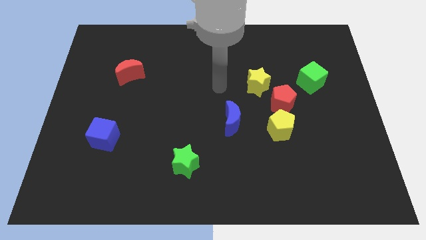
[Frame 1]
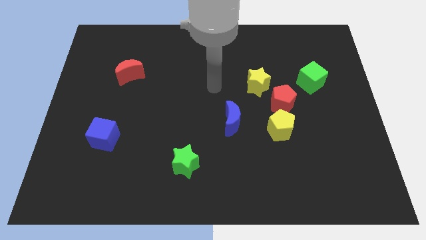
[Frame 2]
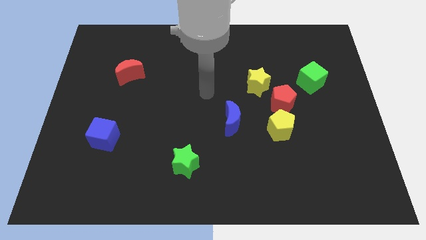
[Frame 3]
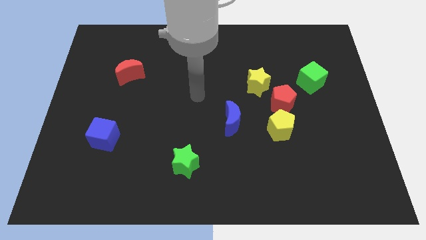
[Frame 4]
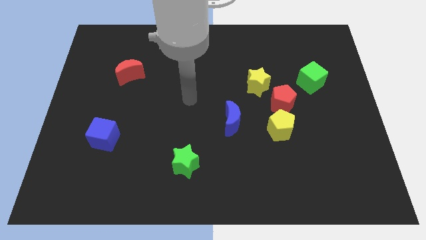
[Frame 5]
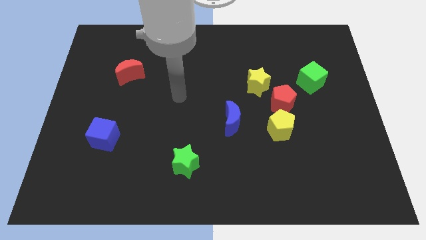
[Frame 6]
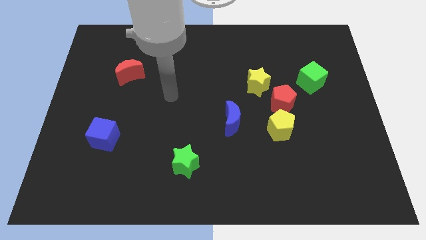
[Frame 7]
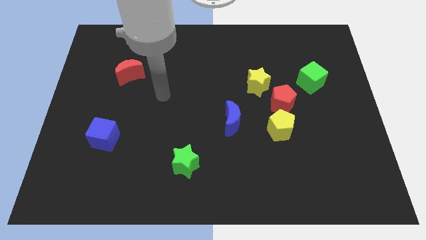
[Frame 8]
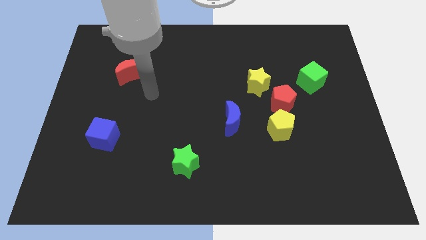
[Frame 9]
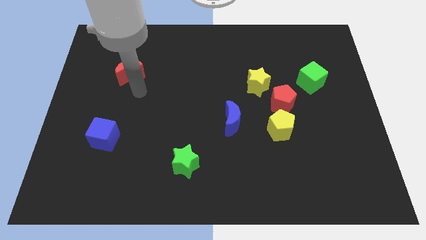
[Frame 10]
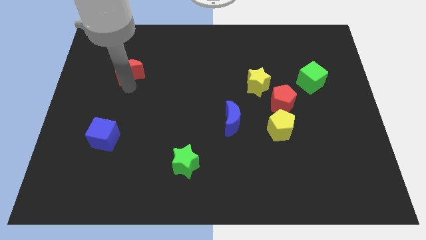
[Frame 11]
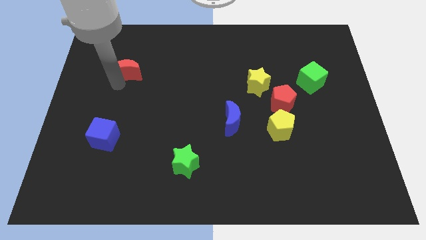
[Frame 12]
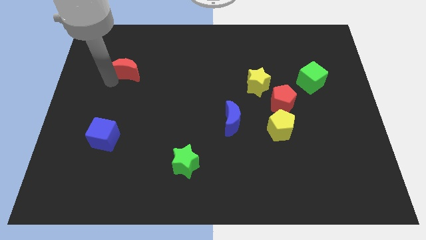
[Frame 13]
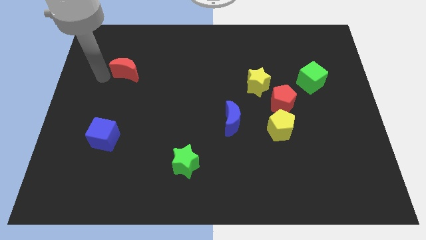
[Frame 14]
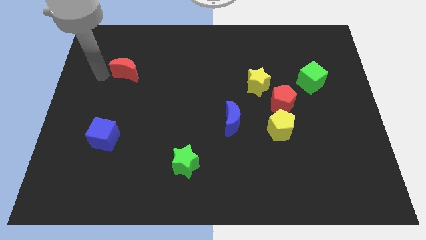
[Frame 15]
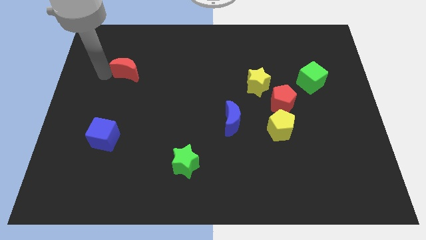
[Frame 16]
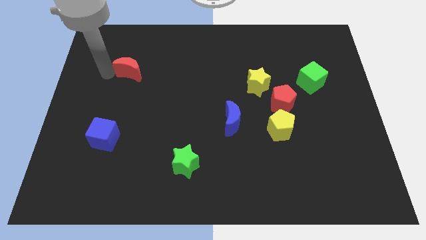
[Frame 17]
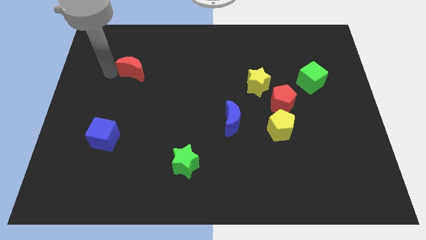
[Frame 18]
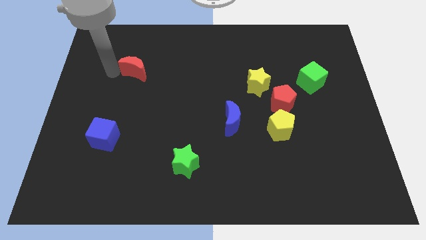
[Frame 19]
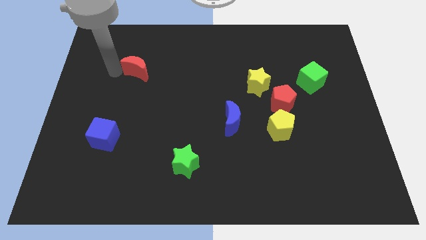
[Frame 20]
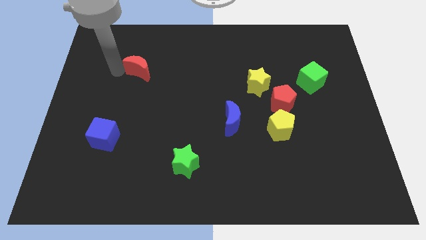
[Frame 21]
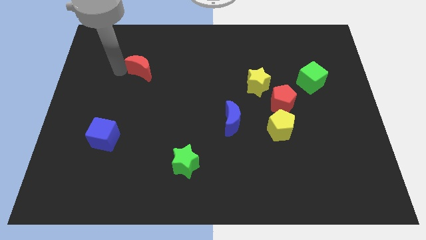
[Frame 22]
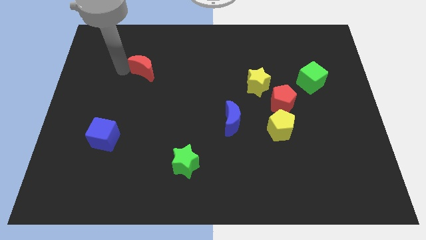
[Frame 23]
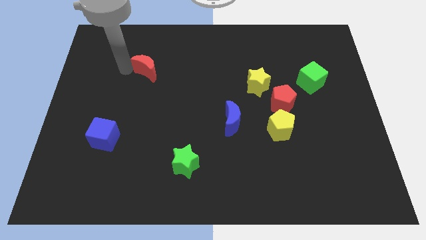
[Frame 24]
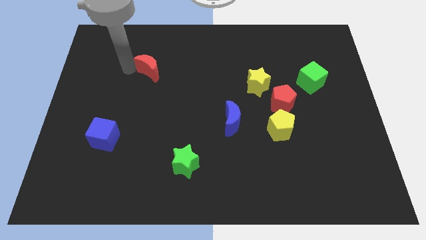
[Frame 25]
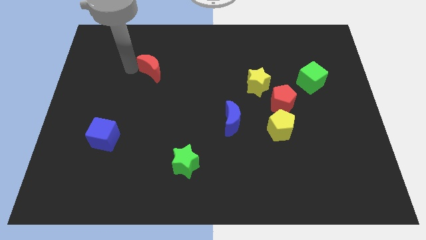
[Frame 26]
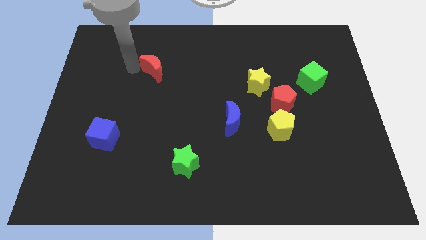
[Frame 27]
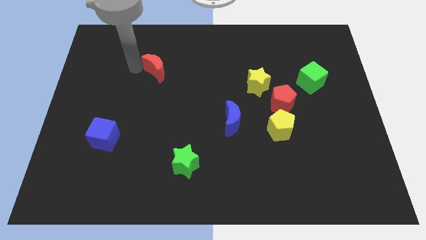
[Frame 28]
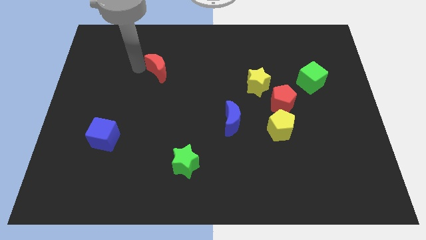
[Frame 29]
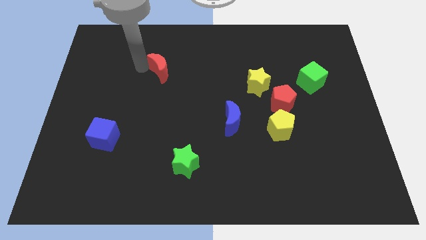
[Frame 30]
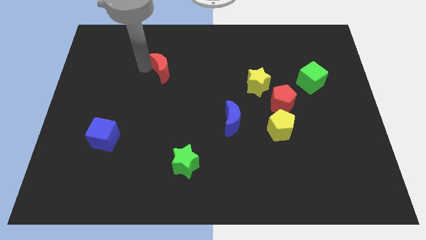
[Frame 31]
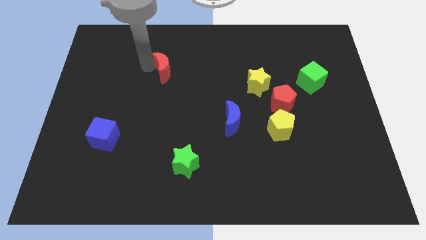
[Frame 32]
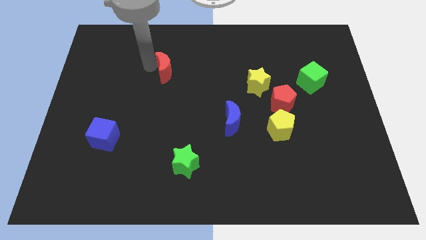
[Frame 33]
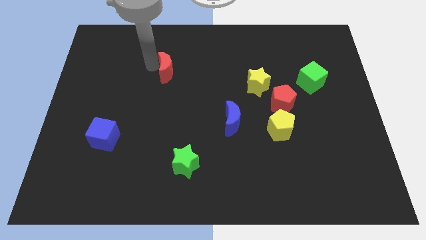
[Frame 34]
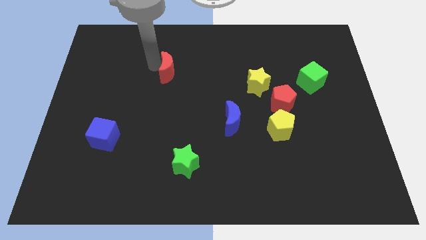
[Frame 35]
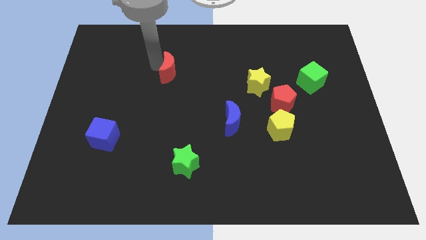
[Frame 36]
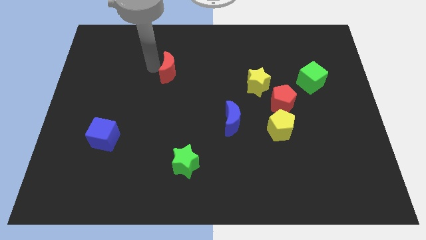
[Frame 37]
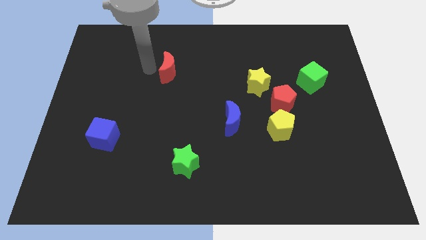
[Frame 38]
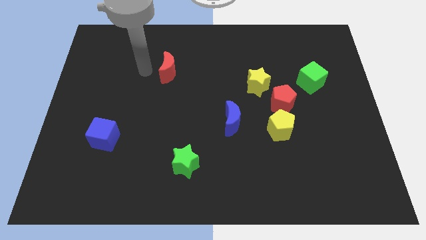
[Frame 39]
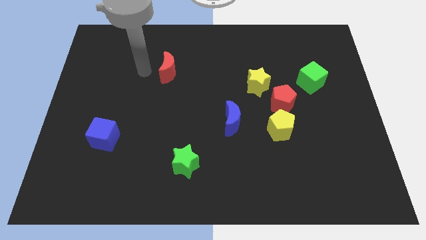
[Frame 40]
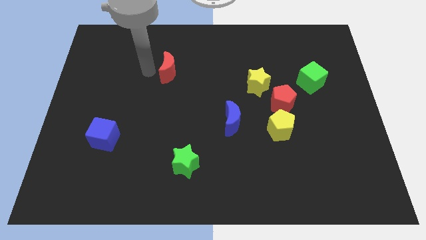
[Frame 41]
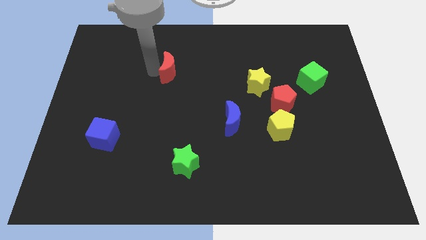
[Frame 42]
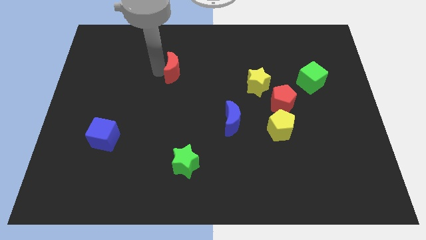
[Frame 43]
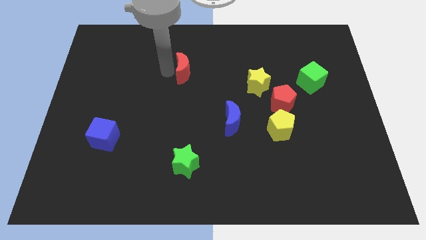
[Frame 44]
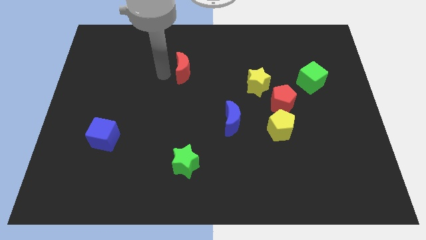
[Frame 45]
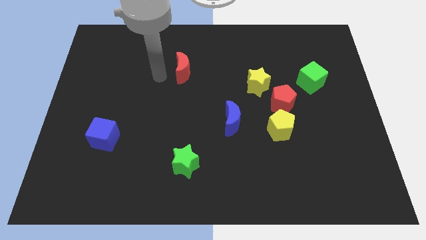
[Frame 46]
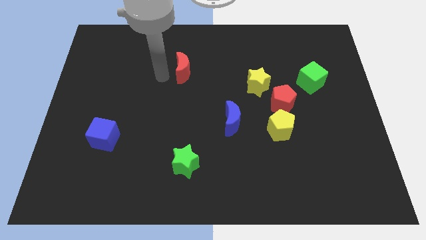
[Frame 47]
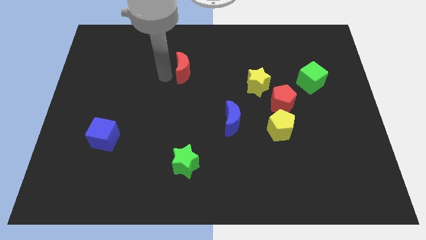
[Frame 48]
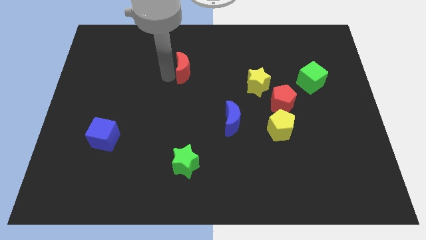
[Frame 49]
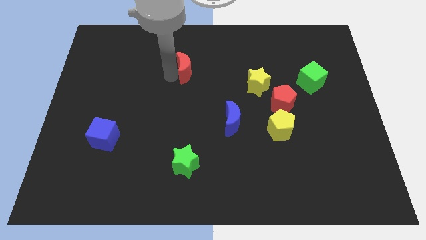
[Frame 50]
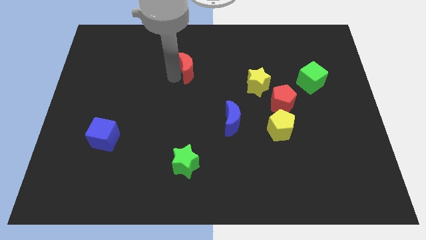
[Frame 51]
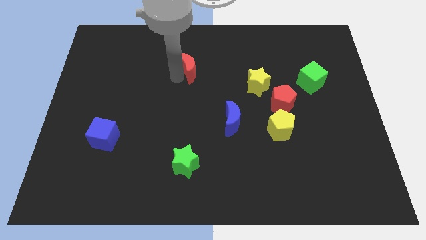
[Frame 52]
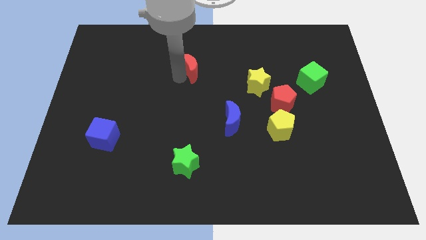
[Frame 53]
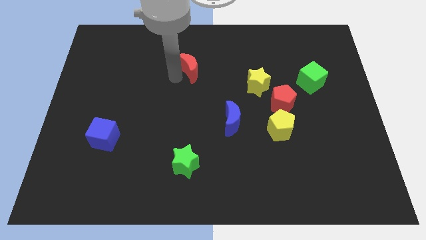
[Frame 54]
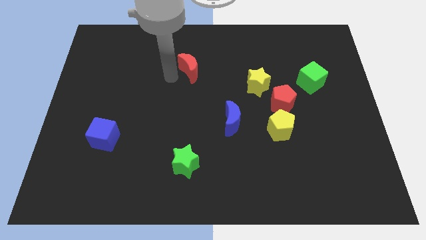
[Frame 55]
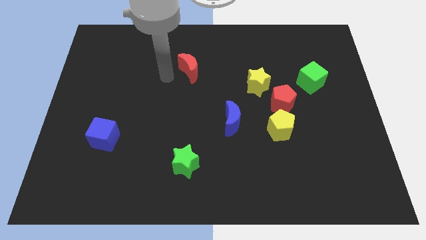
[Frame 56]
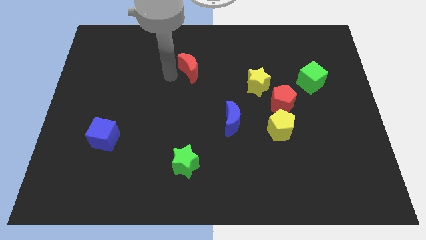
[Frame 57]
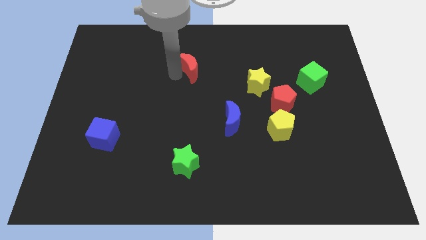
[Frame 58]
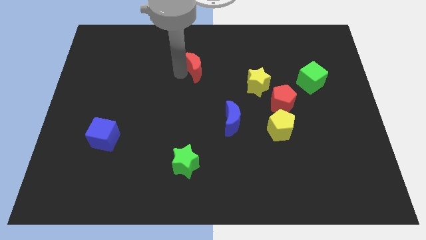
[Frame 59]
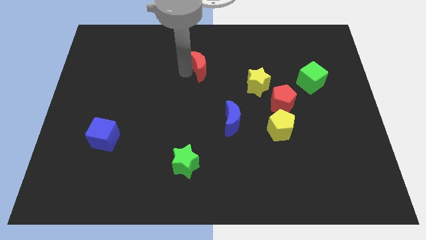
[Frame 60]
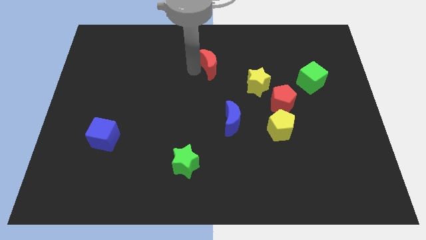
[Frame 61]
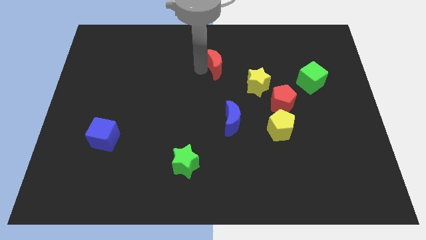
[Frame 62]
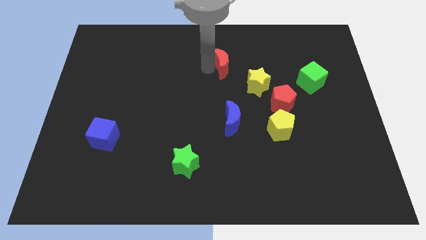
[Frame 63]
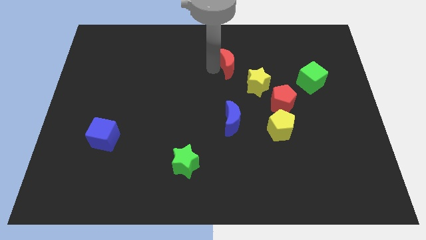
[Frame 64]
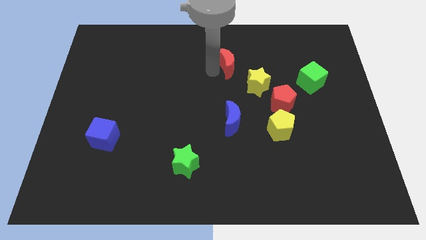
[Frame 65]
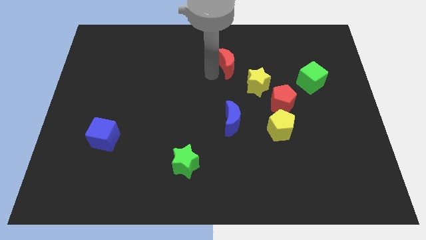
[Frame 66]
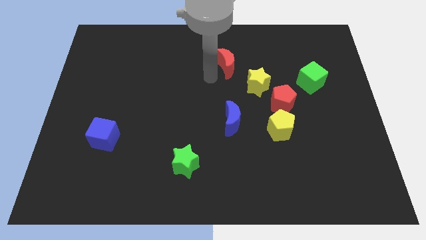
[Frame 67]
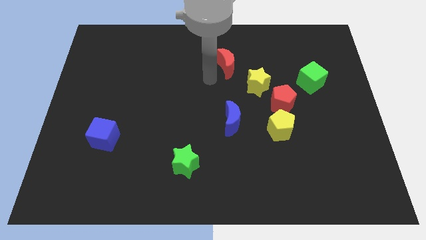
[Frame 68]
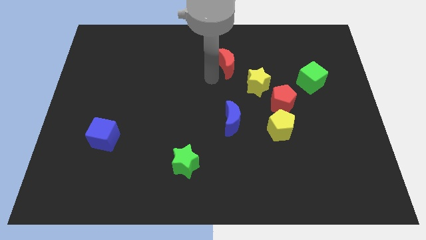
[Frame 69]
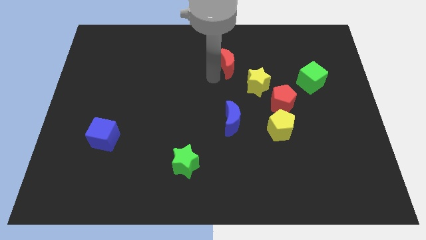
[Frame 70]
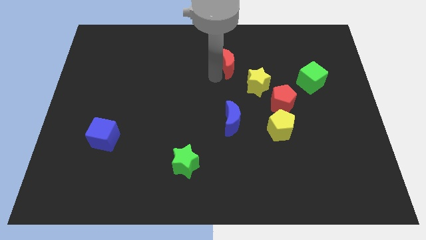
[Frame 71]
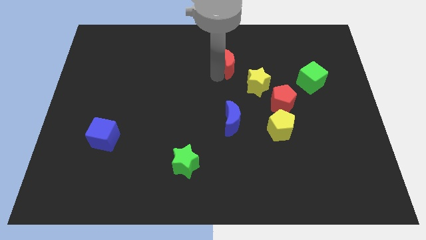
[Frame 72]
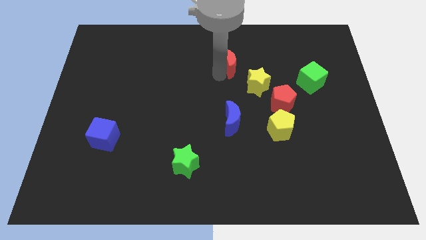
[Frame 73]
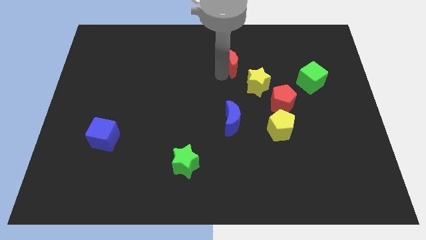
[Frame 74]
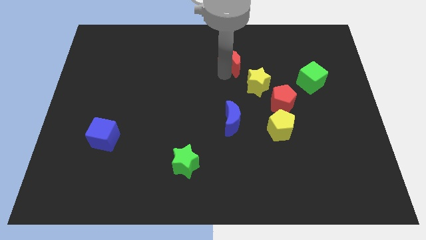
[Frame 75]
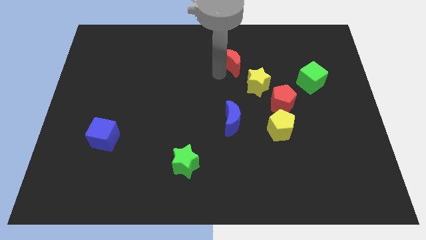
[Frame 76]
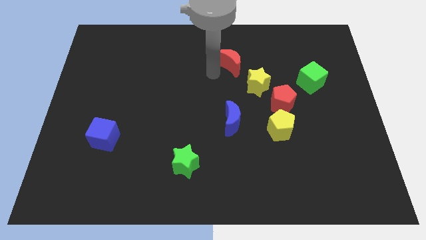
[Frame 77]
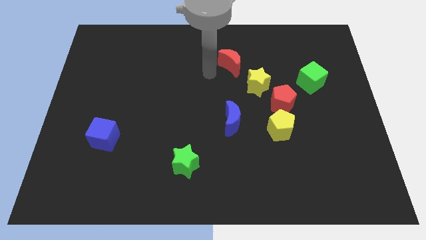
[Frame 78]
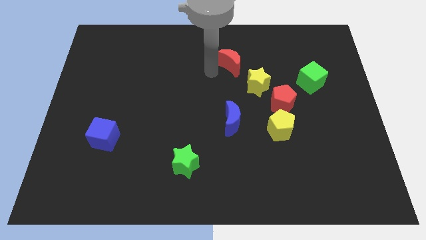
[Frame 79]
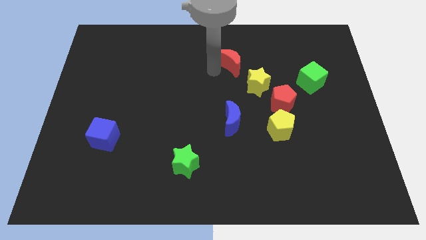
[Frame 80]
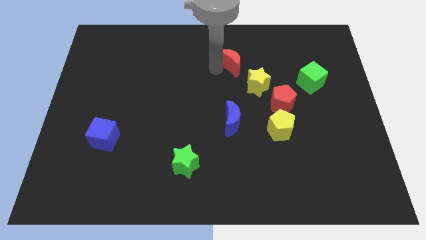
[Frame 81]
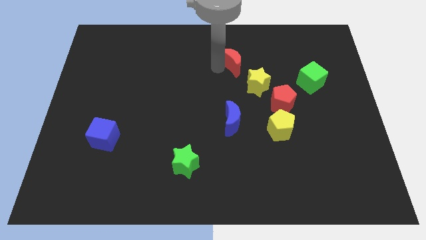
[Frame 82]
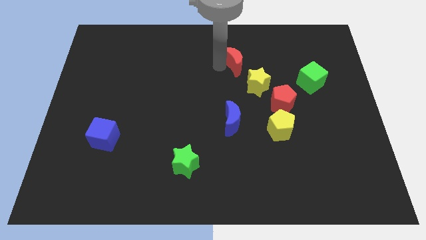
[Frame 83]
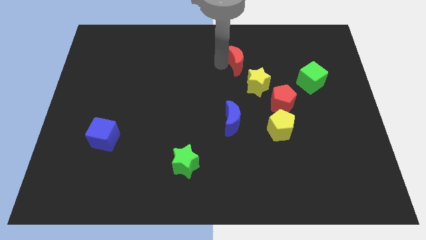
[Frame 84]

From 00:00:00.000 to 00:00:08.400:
slide the red moon to the top side of the yellow star
